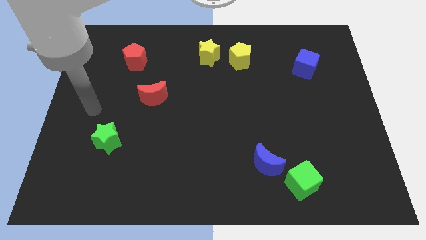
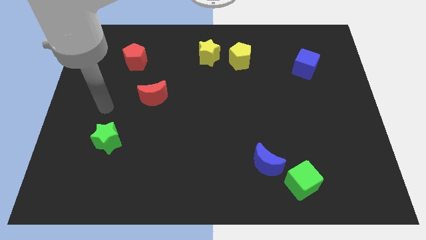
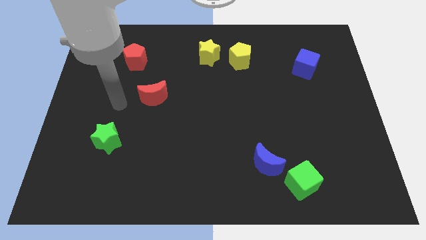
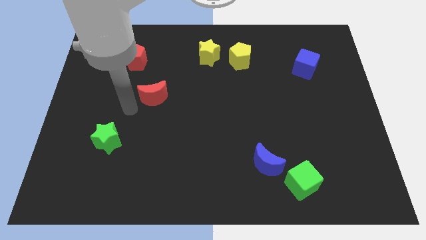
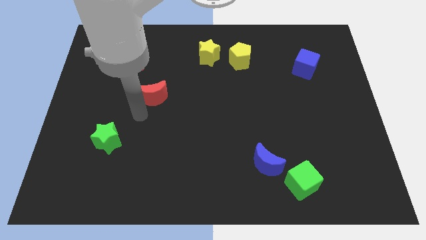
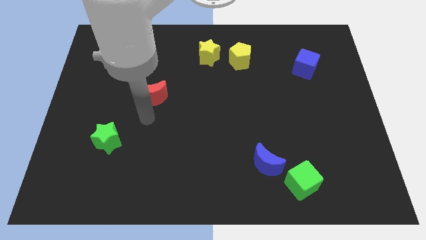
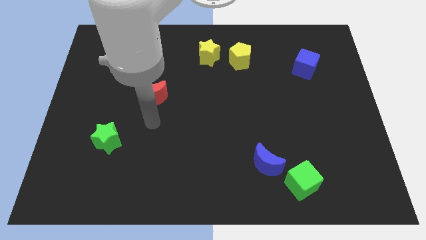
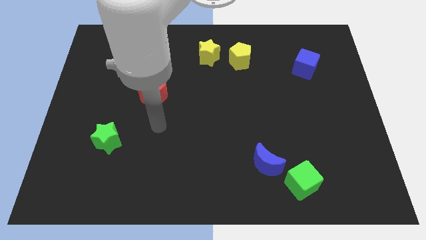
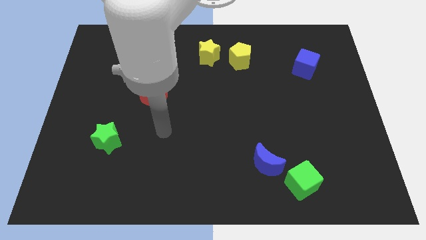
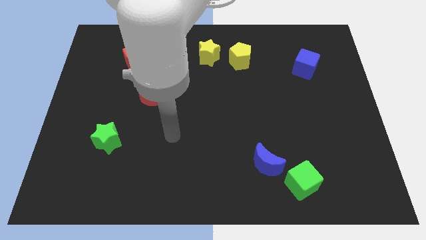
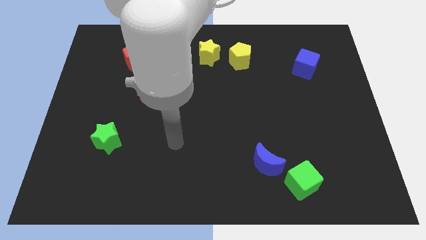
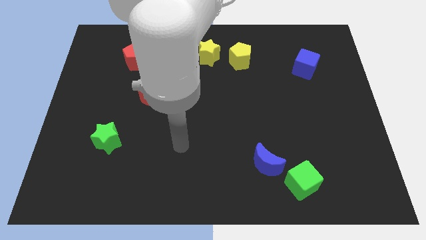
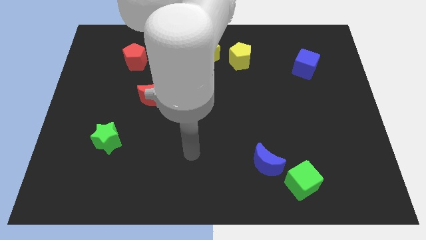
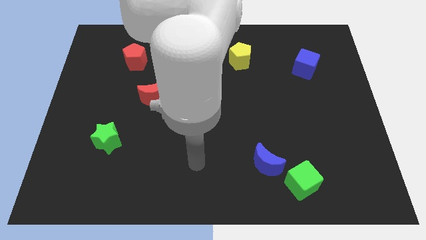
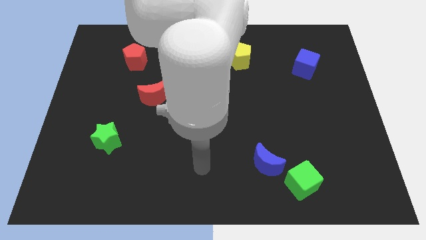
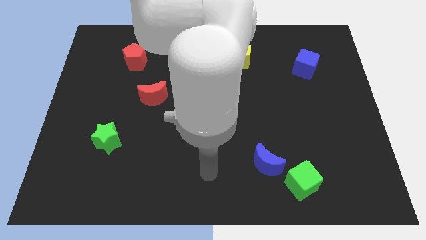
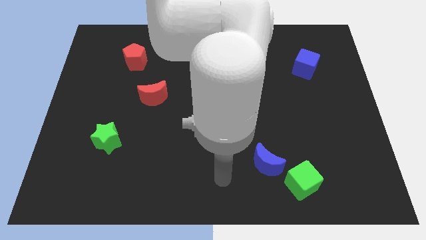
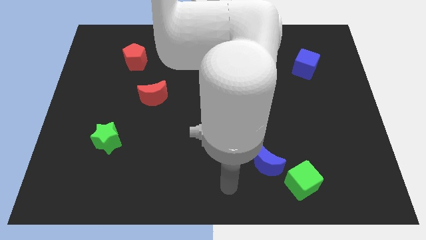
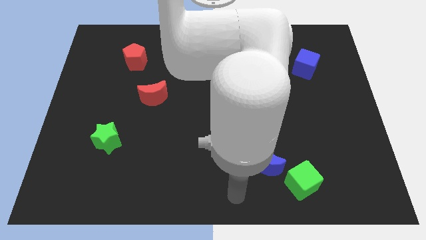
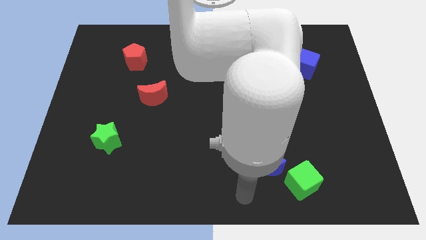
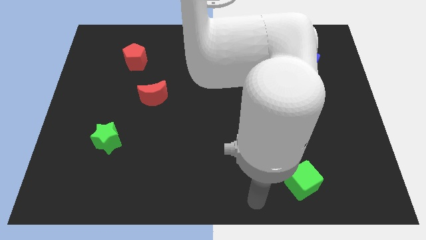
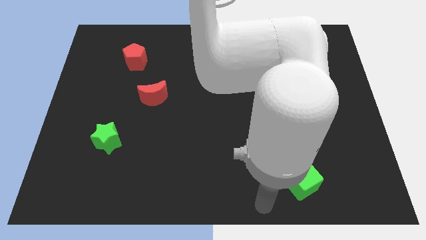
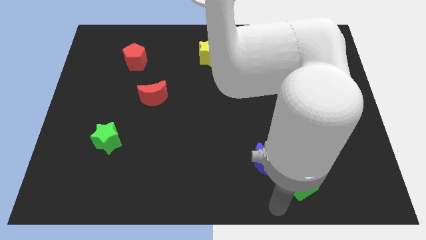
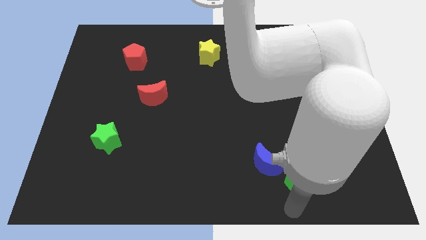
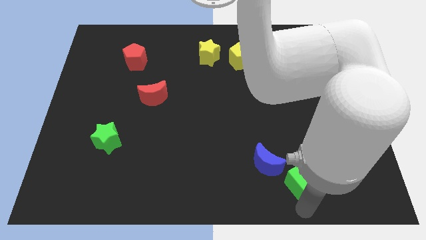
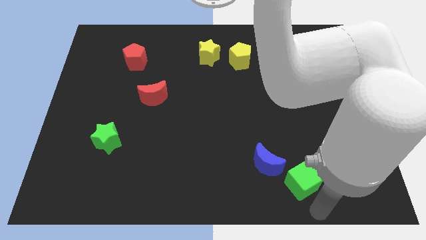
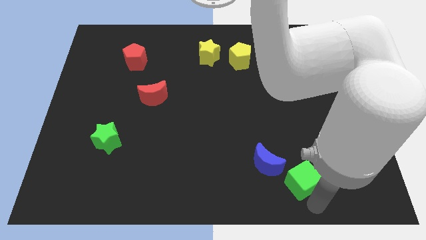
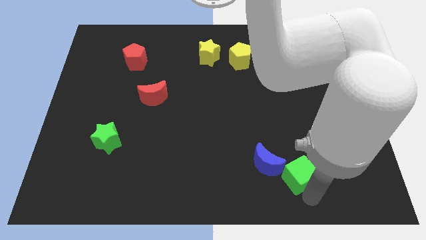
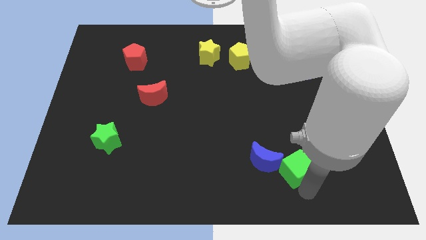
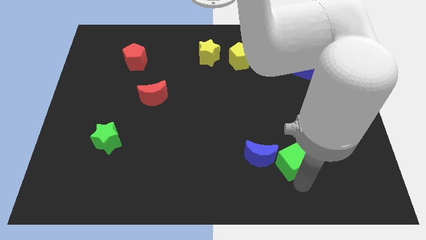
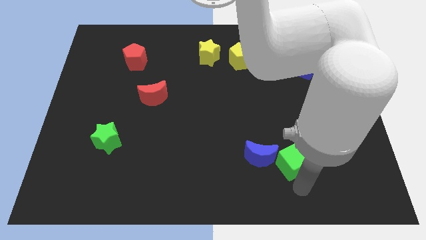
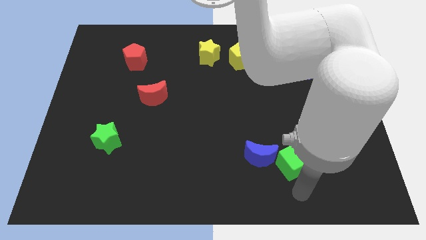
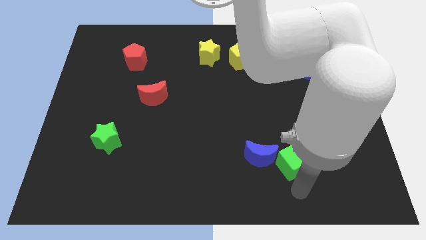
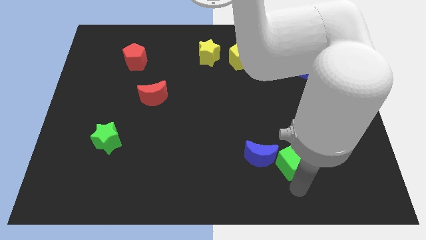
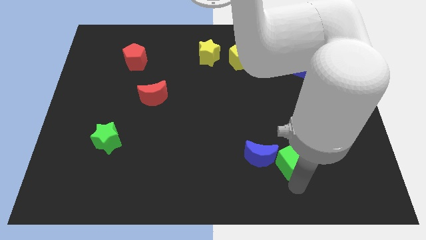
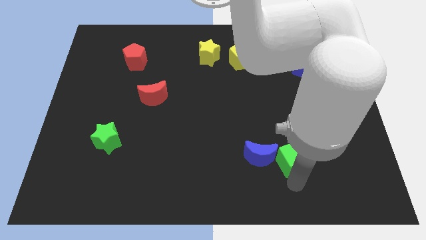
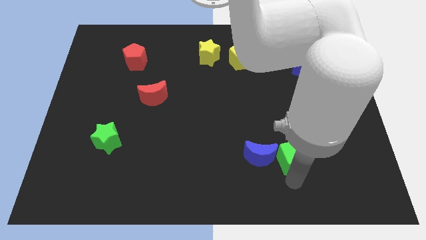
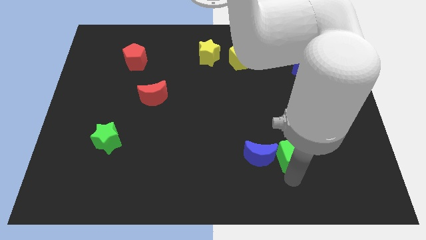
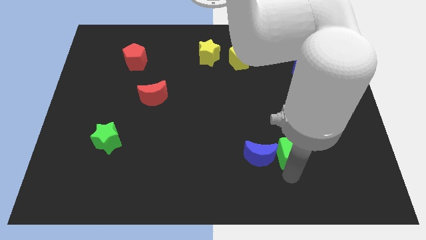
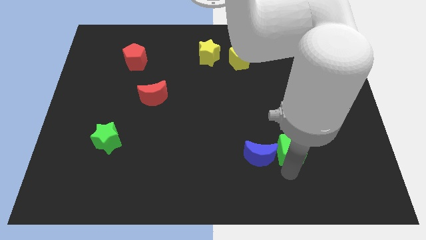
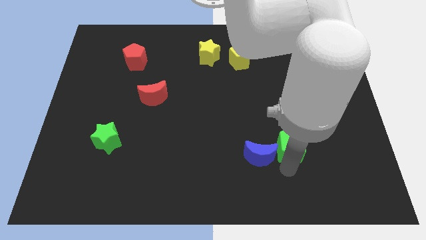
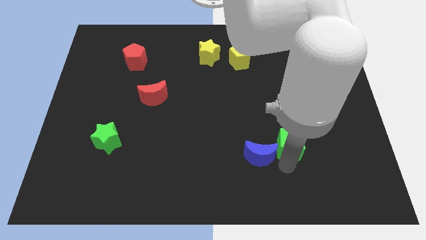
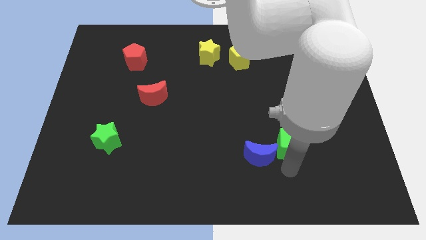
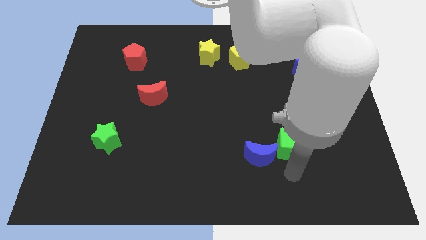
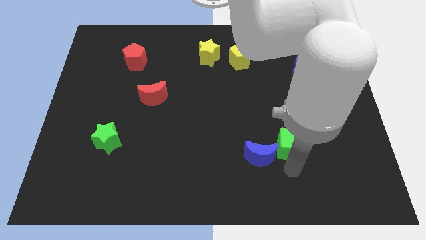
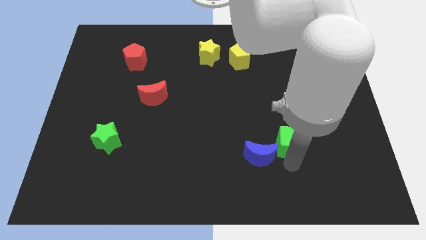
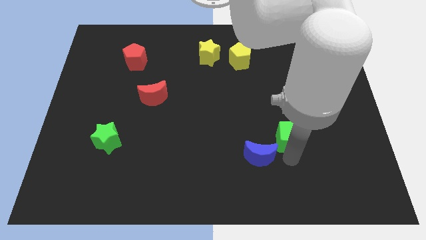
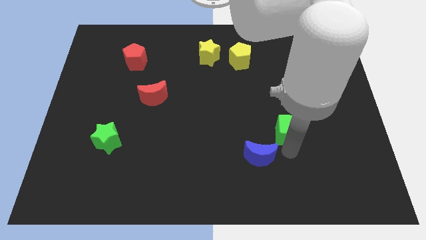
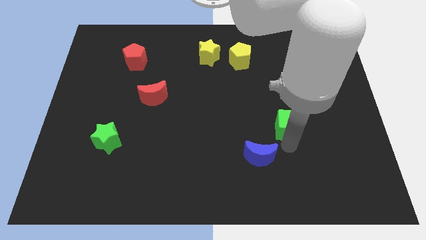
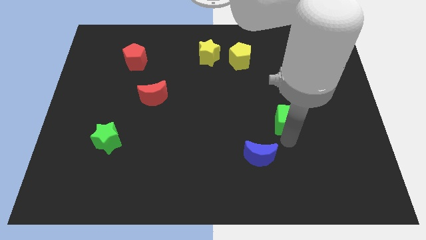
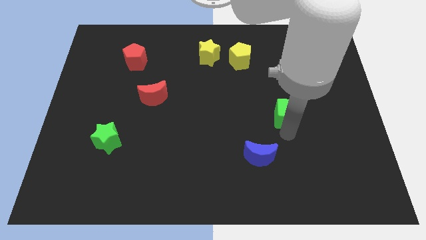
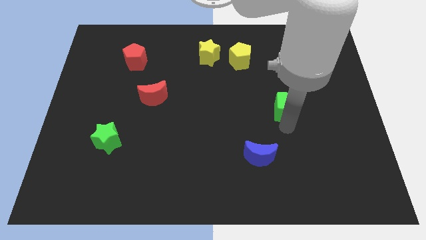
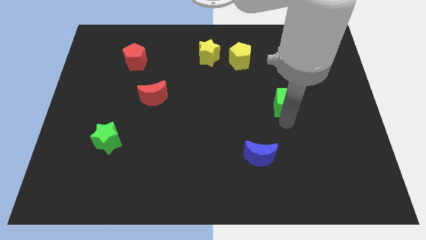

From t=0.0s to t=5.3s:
push the green cube up

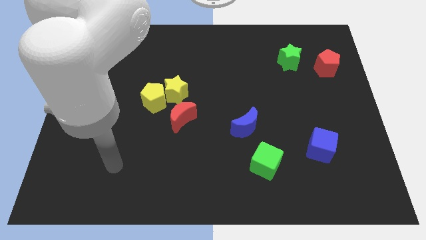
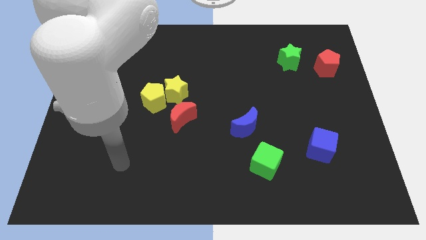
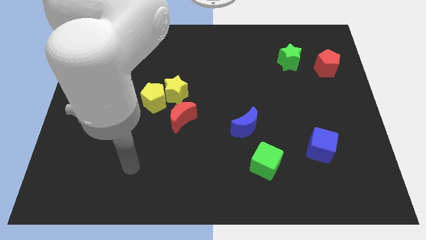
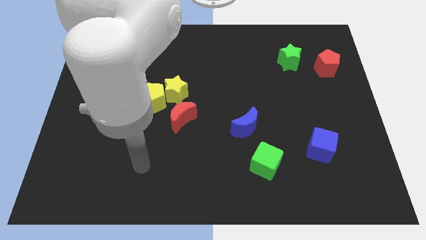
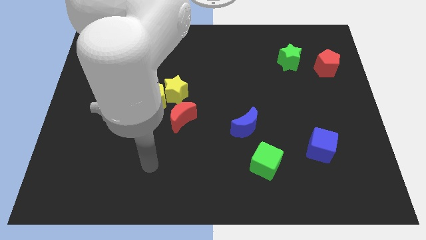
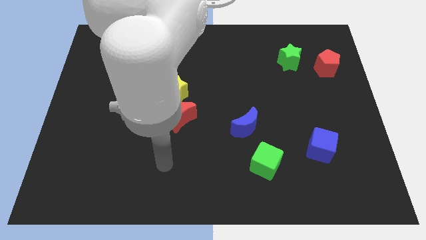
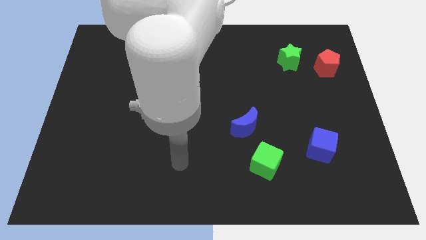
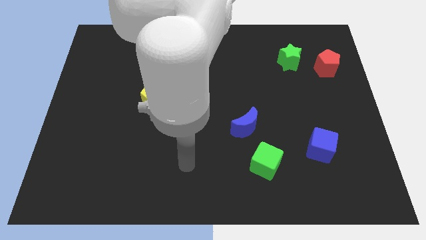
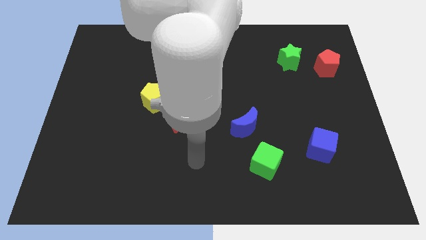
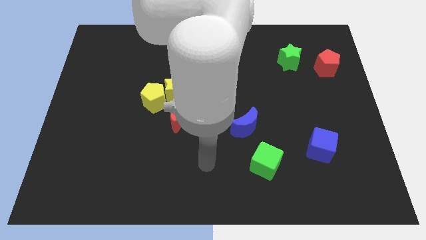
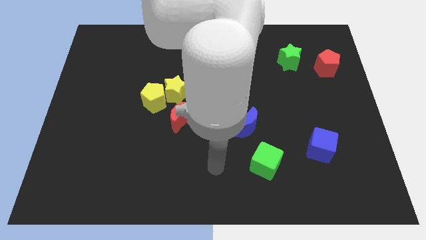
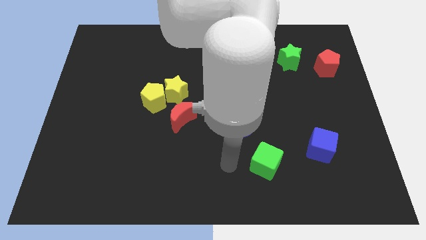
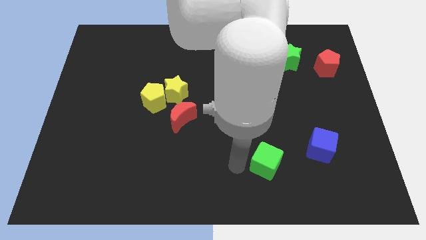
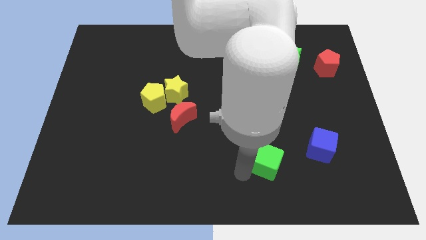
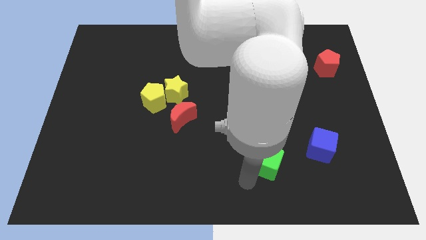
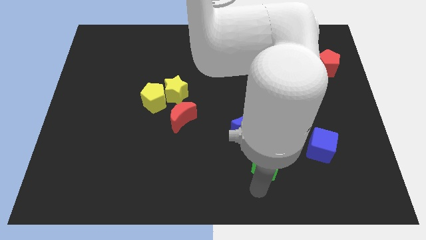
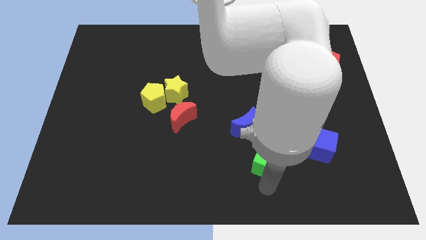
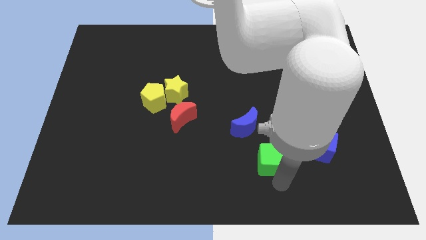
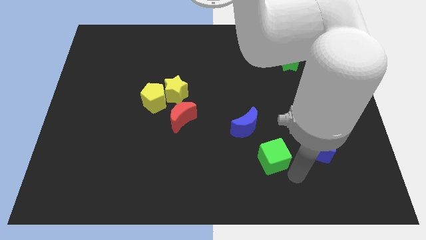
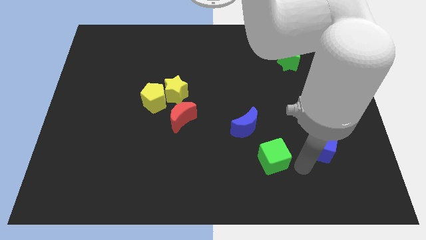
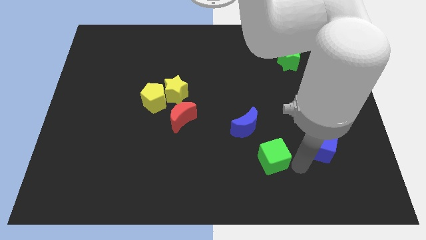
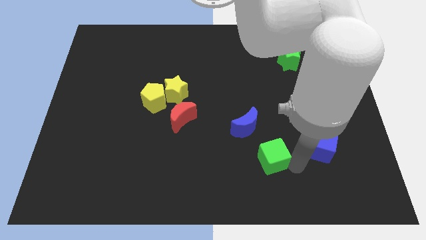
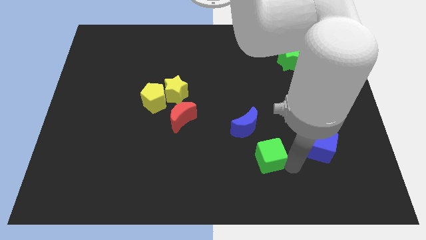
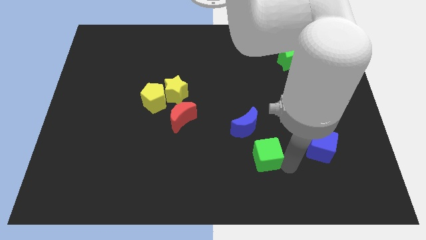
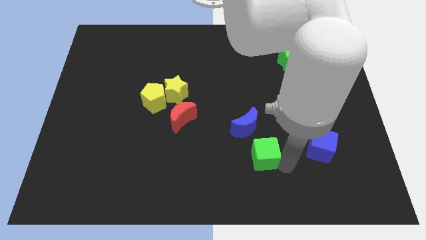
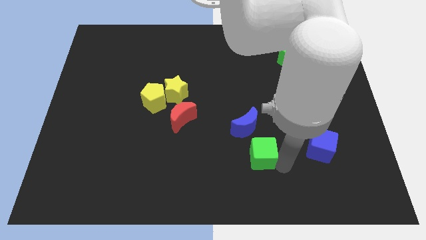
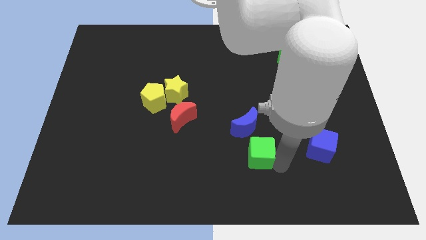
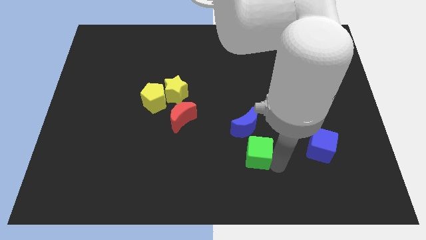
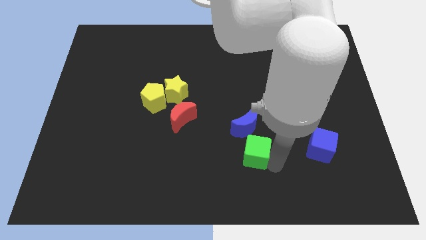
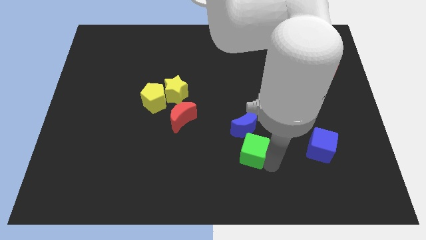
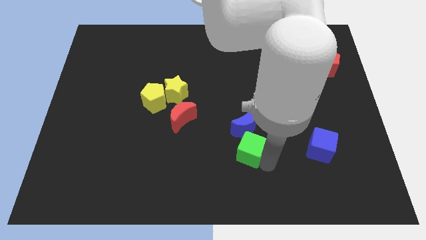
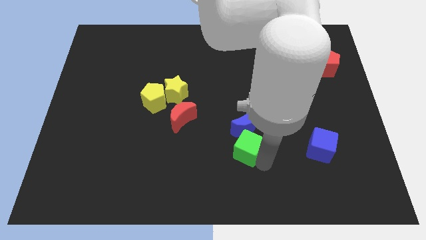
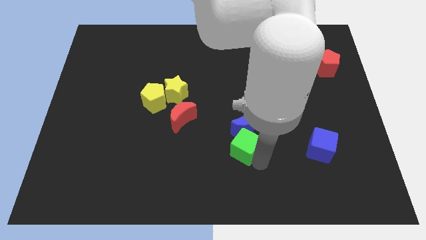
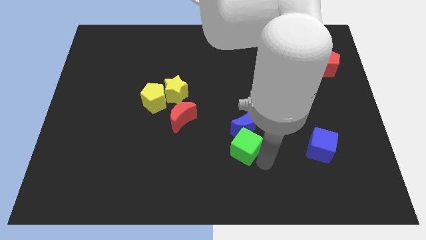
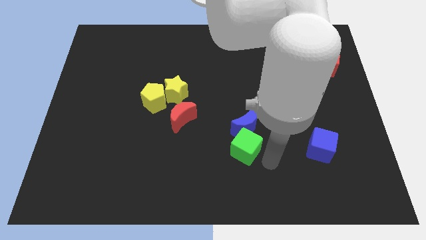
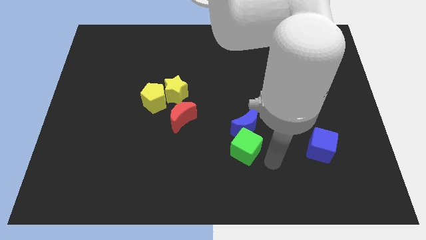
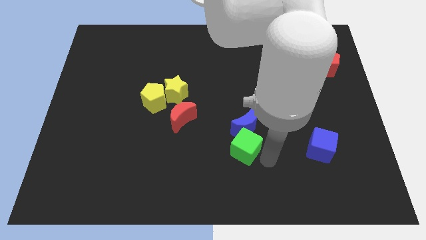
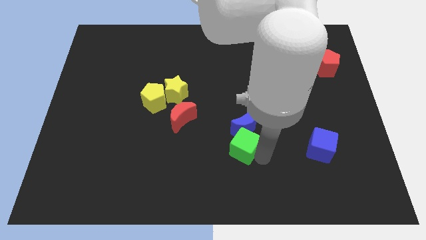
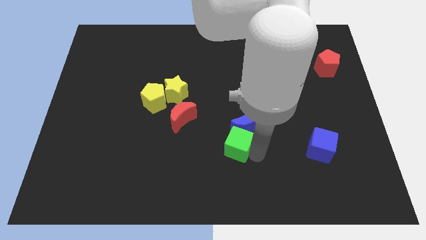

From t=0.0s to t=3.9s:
slightly slide the green cube upwards and left diagonally
